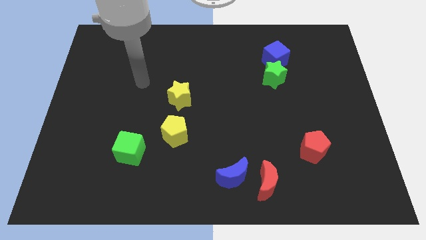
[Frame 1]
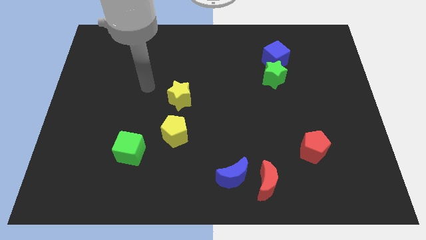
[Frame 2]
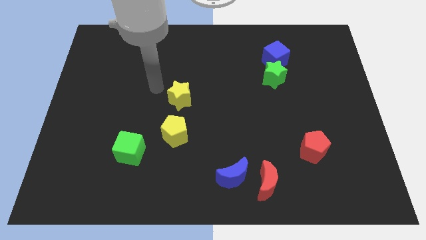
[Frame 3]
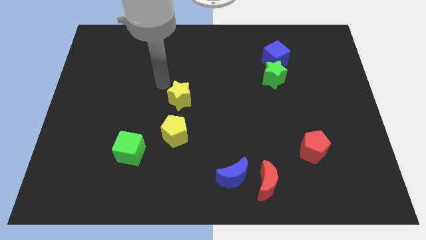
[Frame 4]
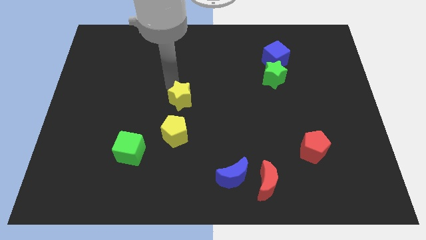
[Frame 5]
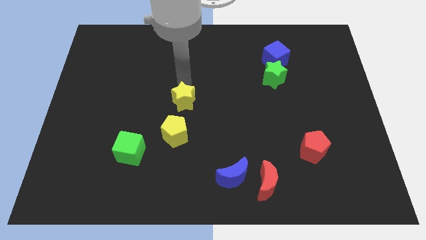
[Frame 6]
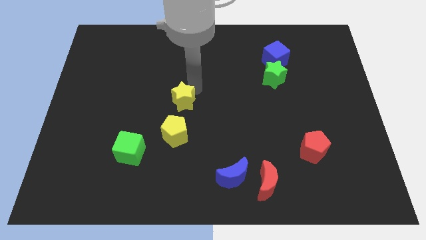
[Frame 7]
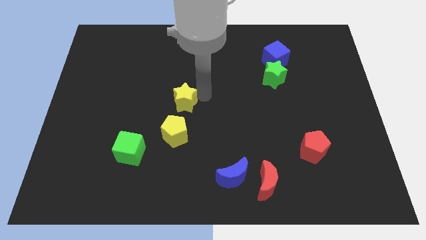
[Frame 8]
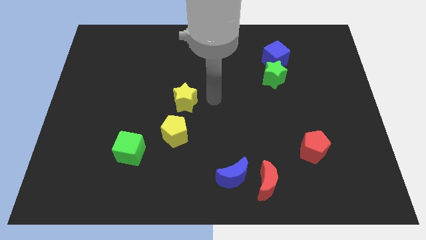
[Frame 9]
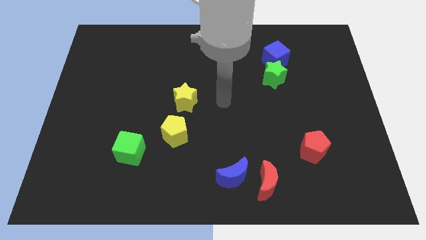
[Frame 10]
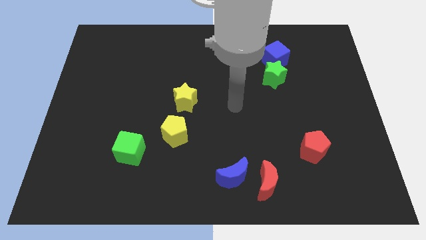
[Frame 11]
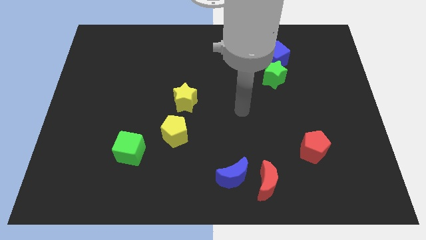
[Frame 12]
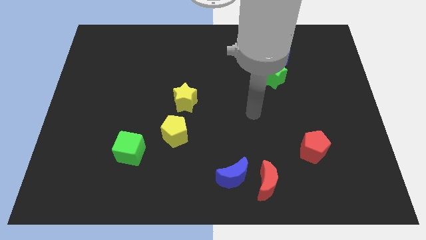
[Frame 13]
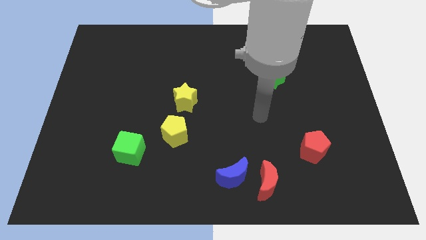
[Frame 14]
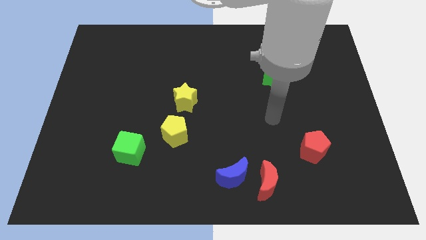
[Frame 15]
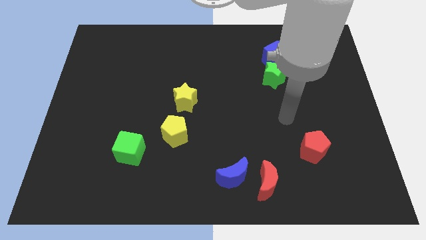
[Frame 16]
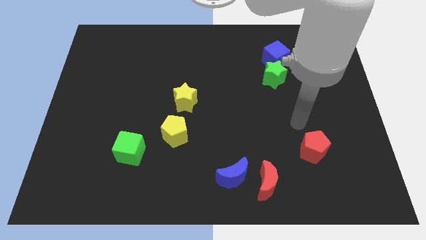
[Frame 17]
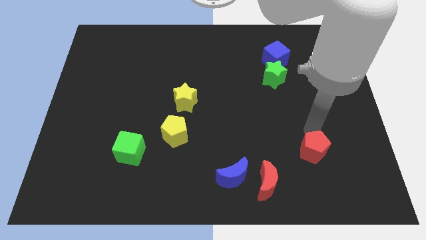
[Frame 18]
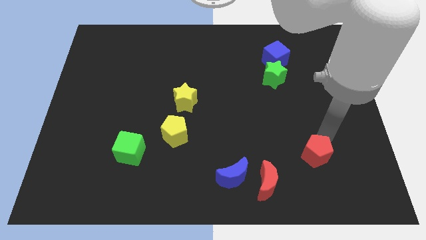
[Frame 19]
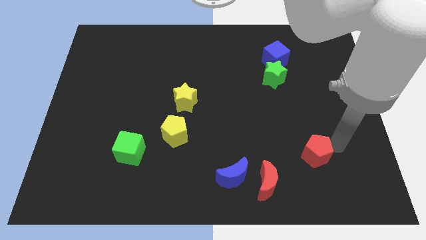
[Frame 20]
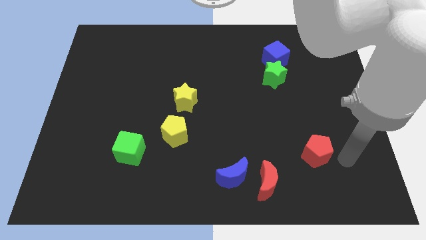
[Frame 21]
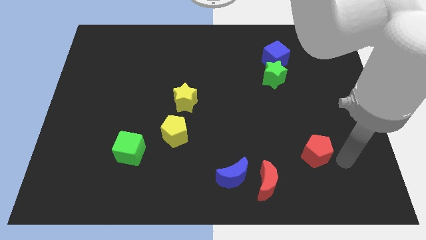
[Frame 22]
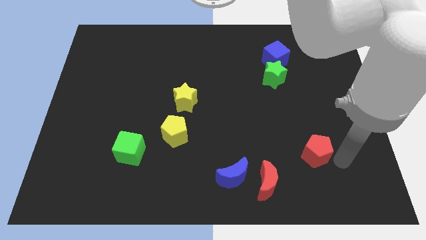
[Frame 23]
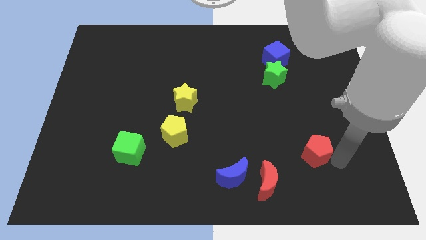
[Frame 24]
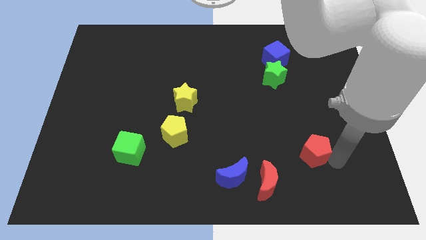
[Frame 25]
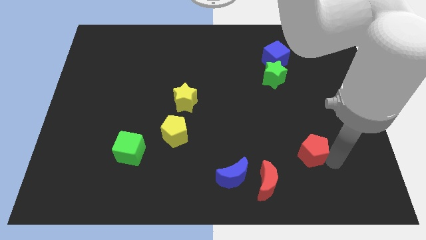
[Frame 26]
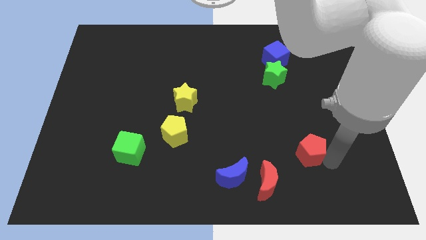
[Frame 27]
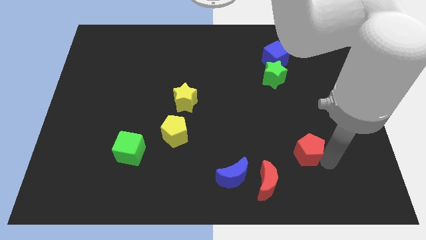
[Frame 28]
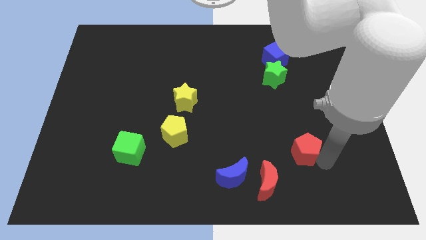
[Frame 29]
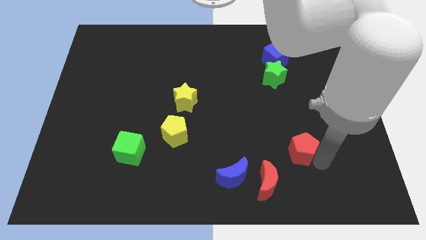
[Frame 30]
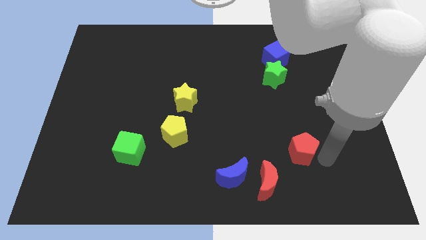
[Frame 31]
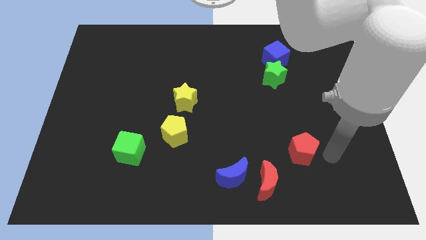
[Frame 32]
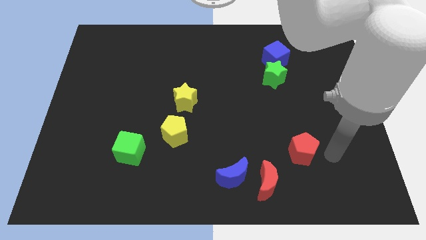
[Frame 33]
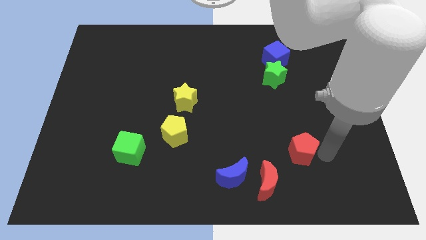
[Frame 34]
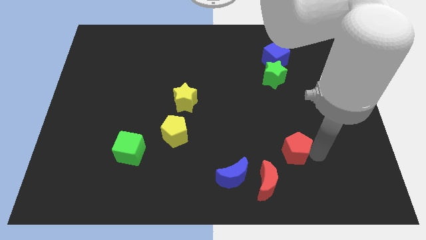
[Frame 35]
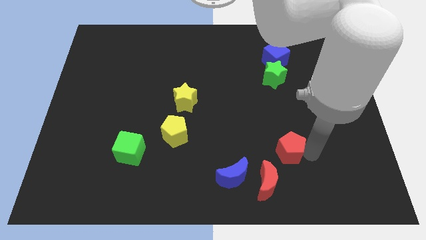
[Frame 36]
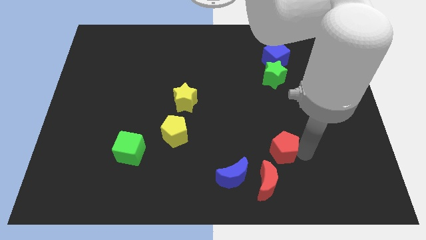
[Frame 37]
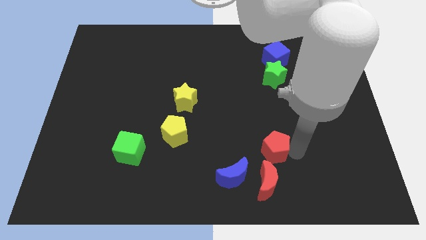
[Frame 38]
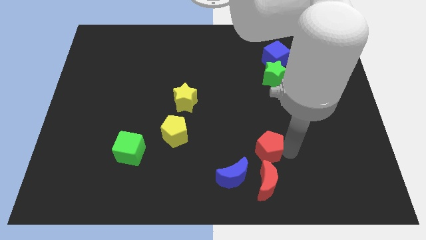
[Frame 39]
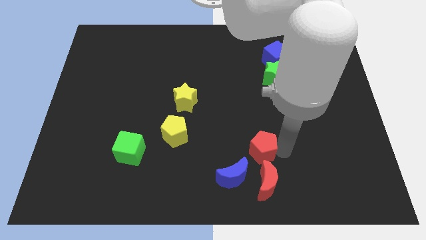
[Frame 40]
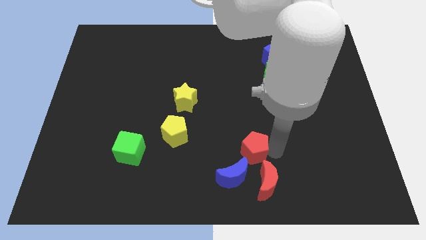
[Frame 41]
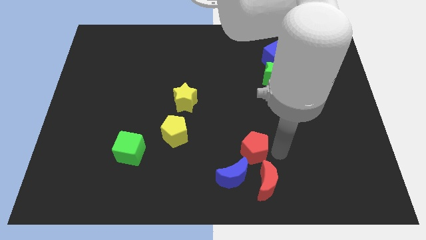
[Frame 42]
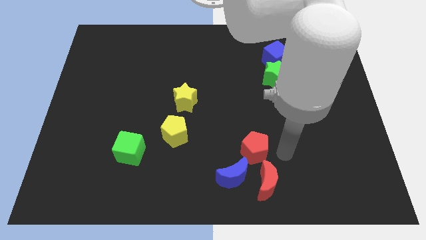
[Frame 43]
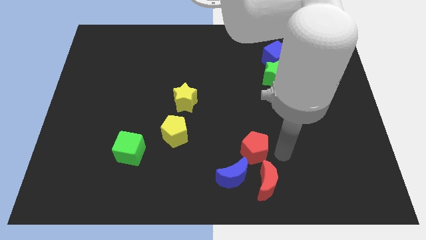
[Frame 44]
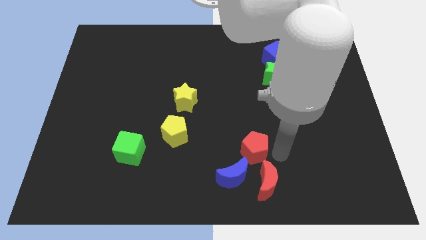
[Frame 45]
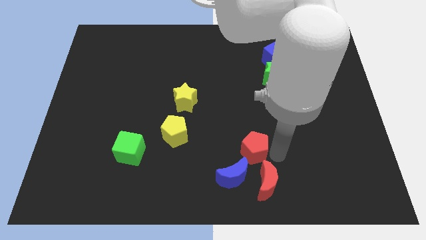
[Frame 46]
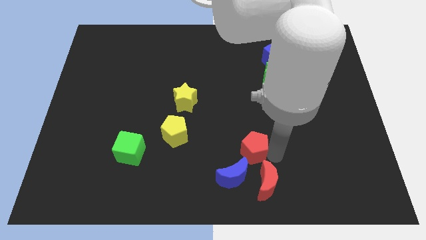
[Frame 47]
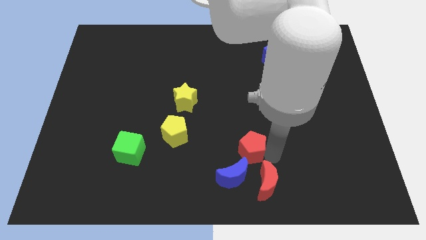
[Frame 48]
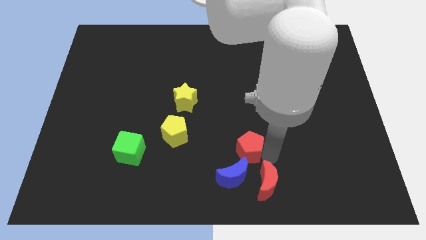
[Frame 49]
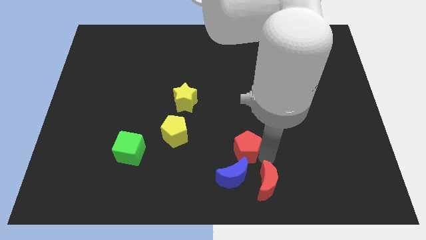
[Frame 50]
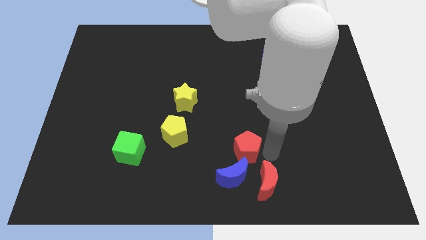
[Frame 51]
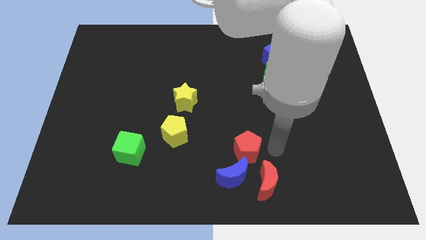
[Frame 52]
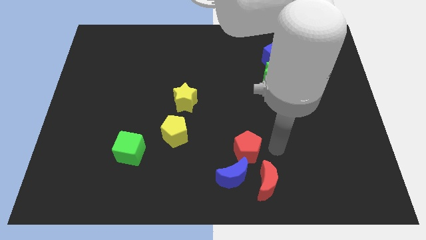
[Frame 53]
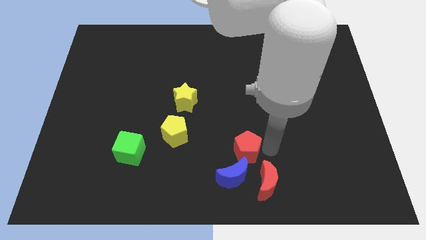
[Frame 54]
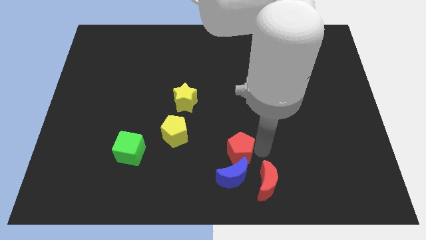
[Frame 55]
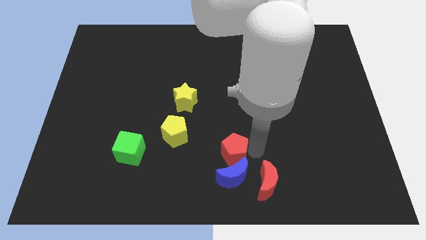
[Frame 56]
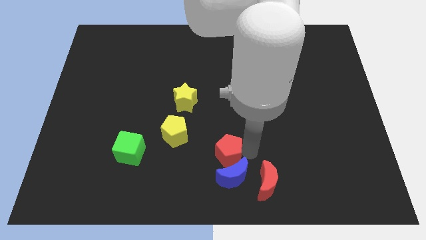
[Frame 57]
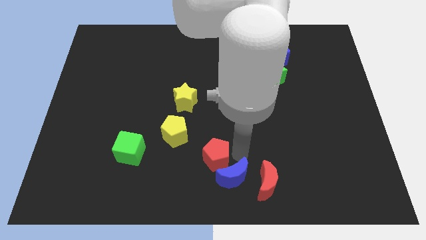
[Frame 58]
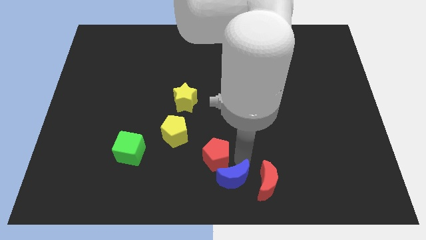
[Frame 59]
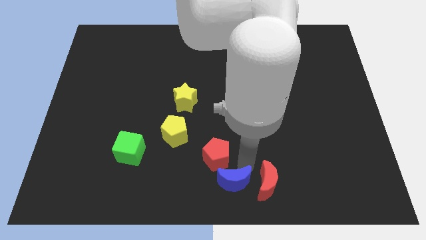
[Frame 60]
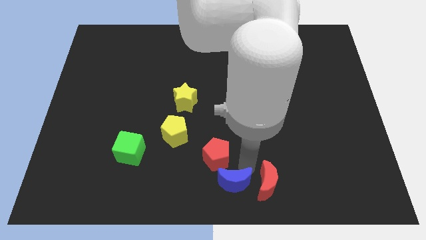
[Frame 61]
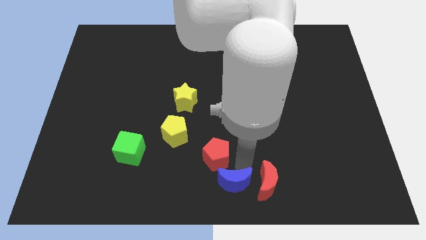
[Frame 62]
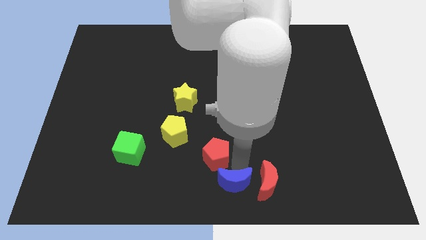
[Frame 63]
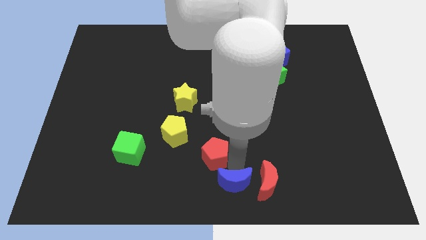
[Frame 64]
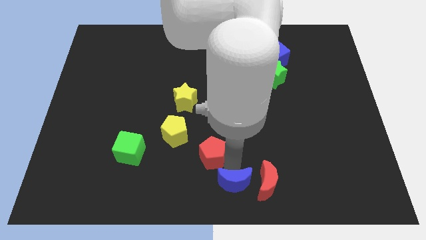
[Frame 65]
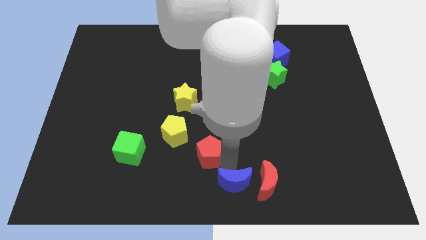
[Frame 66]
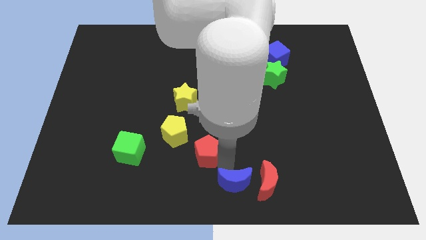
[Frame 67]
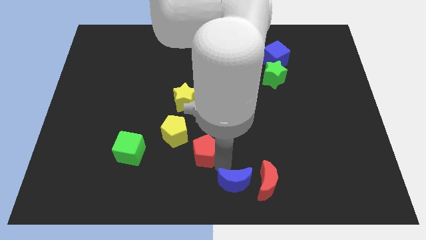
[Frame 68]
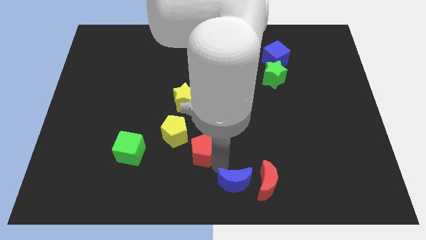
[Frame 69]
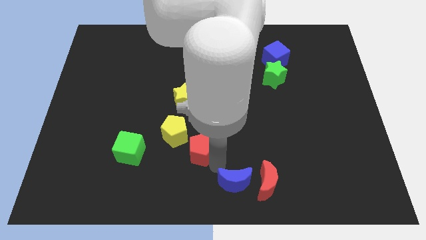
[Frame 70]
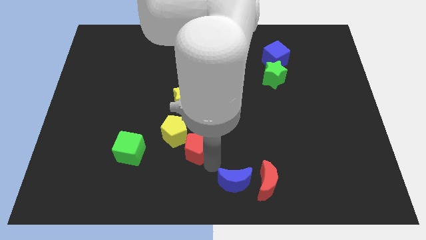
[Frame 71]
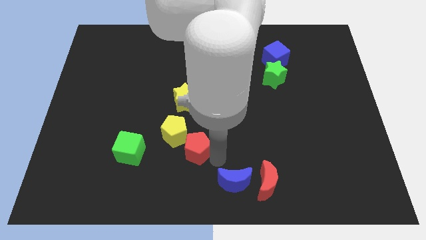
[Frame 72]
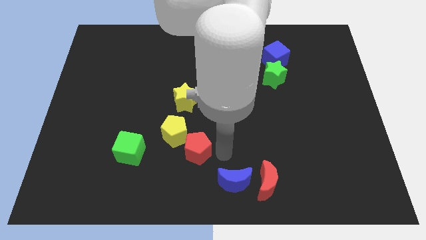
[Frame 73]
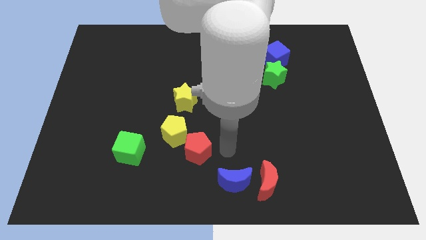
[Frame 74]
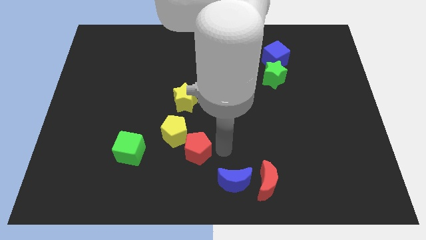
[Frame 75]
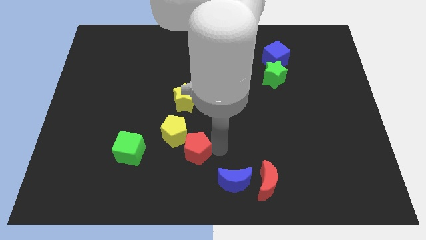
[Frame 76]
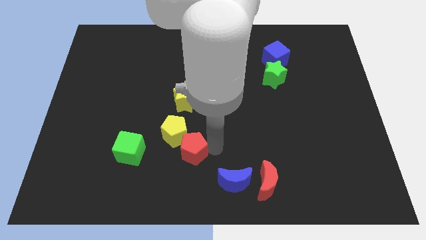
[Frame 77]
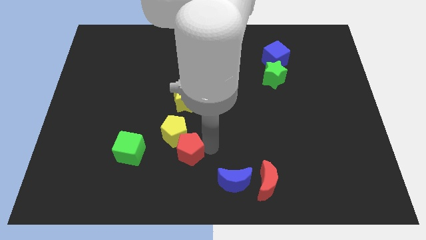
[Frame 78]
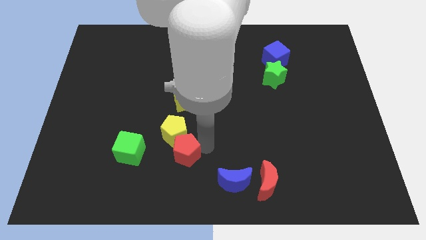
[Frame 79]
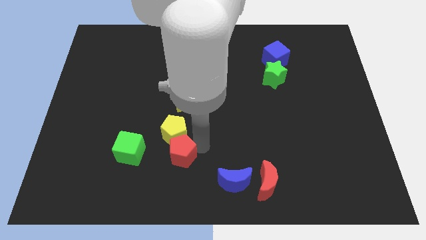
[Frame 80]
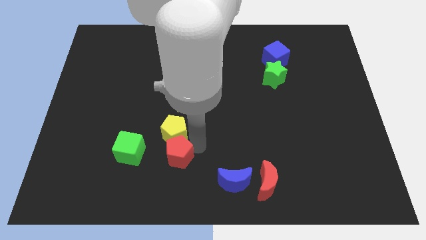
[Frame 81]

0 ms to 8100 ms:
put the red pentagon to the bottom left side of the yellow pentagon
